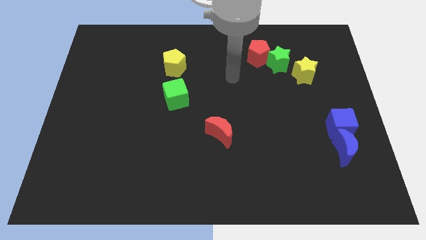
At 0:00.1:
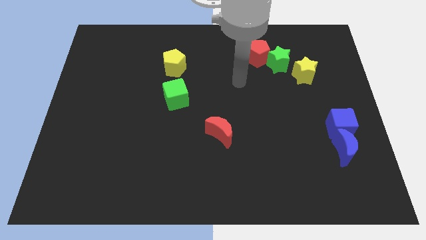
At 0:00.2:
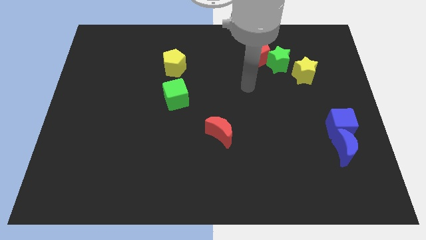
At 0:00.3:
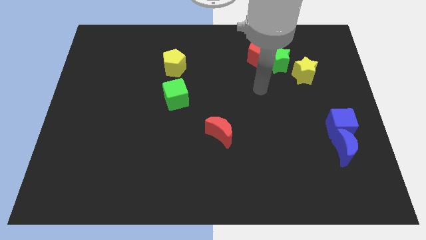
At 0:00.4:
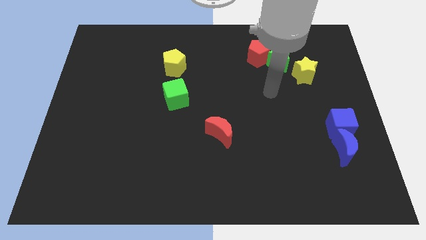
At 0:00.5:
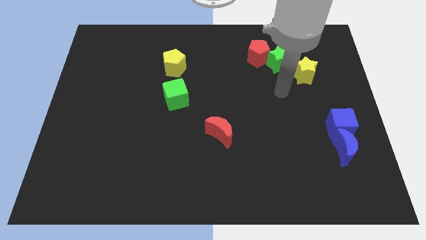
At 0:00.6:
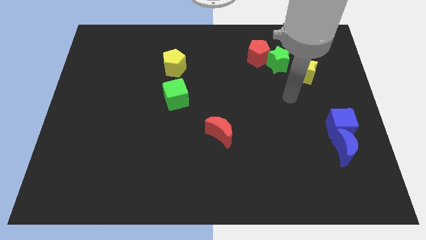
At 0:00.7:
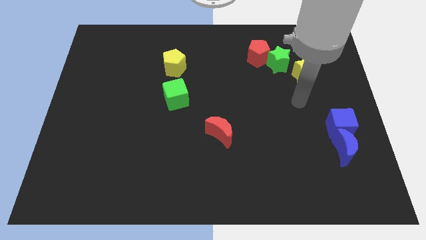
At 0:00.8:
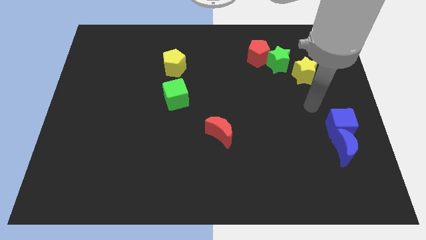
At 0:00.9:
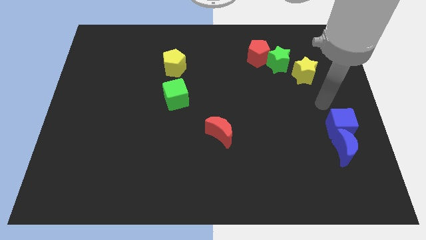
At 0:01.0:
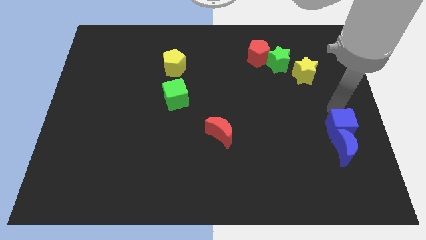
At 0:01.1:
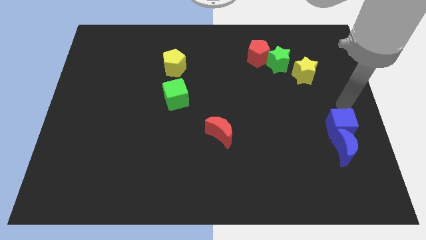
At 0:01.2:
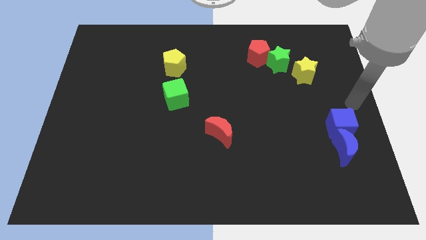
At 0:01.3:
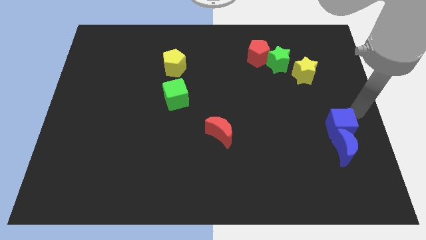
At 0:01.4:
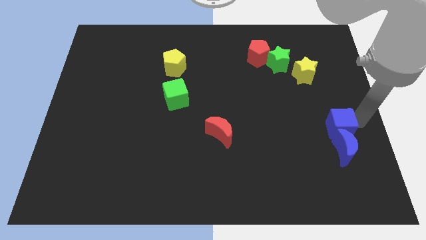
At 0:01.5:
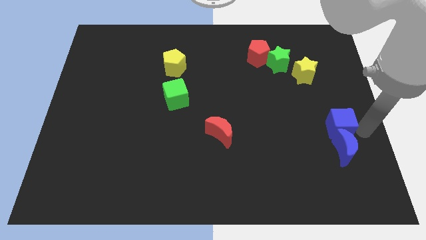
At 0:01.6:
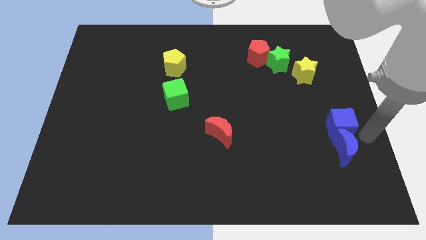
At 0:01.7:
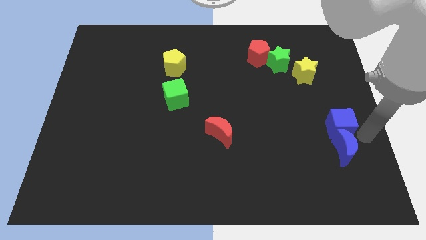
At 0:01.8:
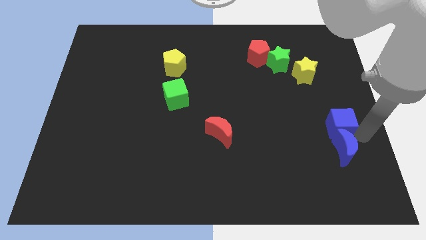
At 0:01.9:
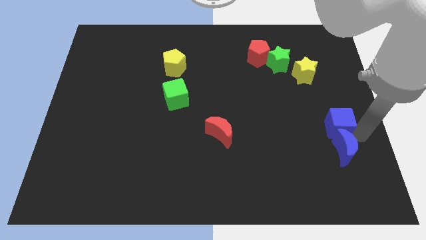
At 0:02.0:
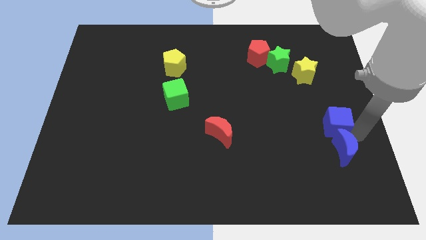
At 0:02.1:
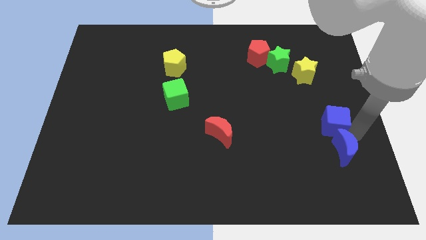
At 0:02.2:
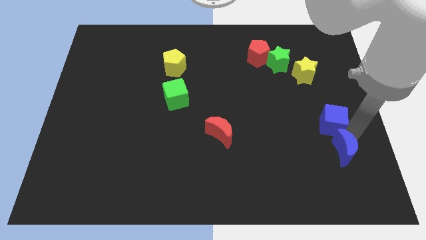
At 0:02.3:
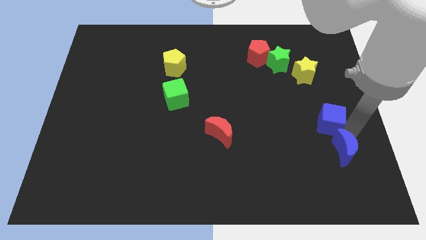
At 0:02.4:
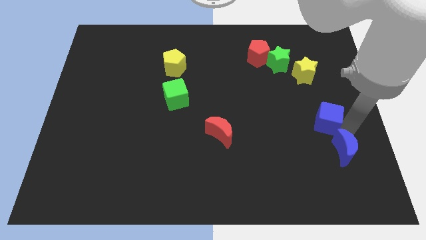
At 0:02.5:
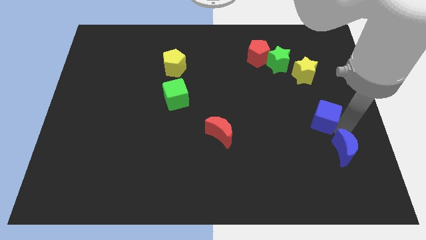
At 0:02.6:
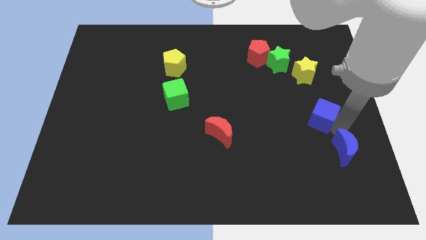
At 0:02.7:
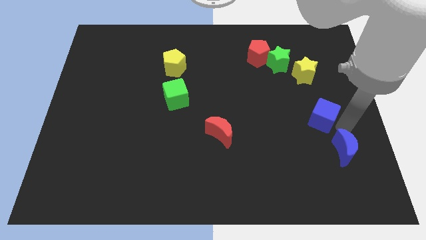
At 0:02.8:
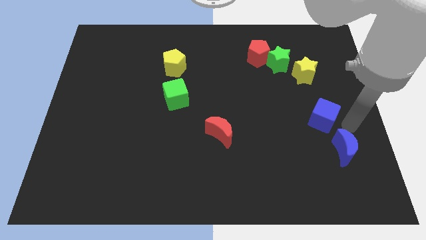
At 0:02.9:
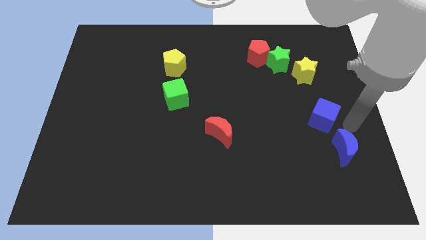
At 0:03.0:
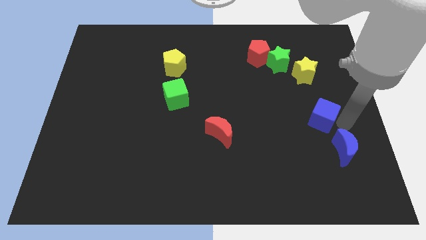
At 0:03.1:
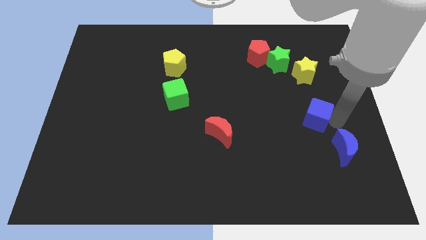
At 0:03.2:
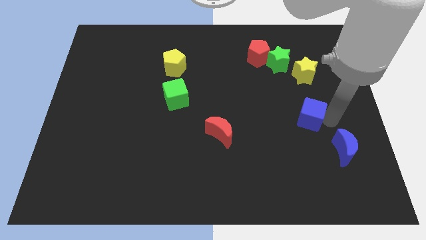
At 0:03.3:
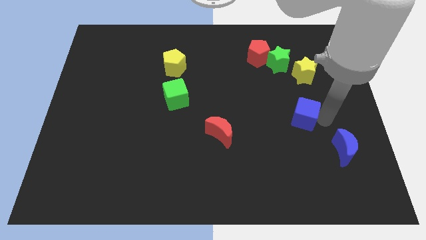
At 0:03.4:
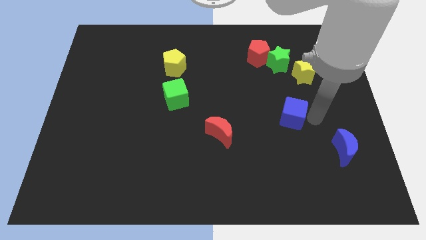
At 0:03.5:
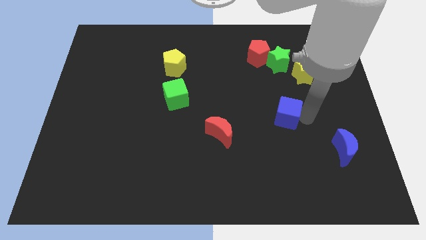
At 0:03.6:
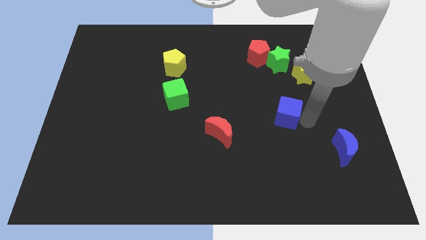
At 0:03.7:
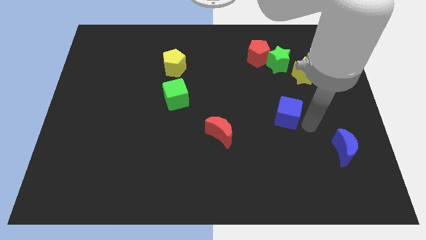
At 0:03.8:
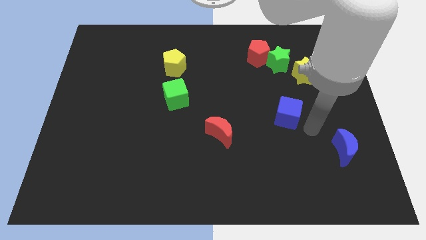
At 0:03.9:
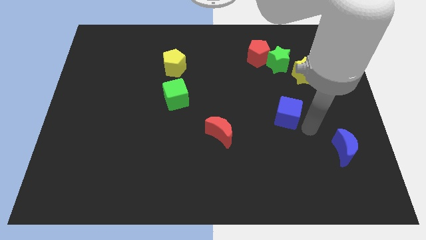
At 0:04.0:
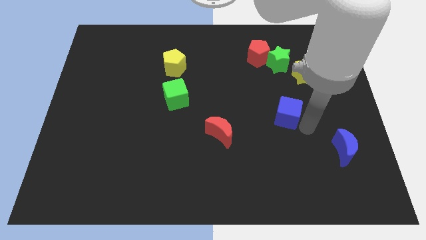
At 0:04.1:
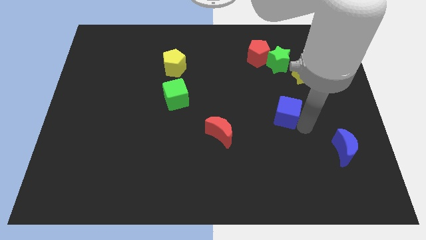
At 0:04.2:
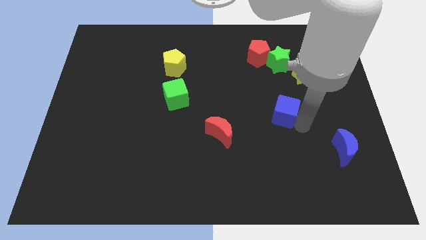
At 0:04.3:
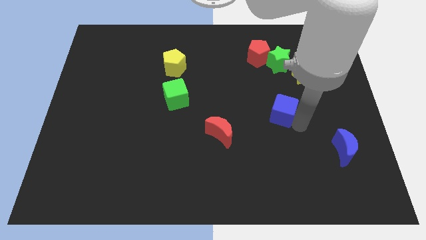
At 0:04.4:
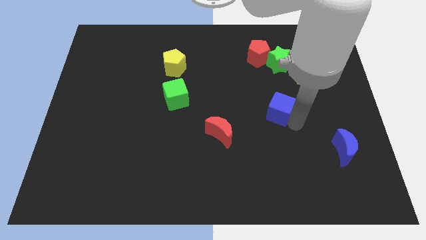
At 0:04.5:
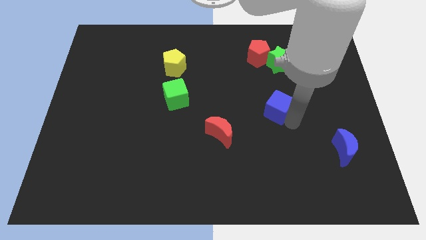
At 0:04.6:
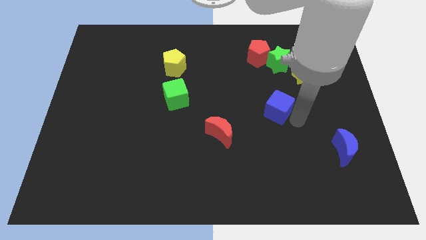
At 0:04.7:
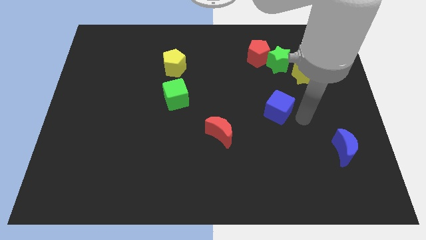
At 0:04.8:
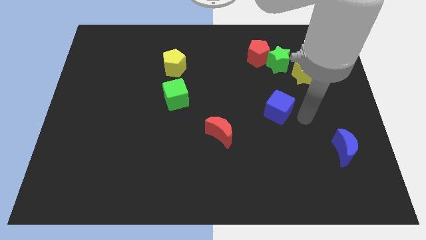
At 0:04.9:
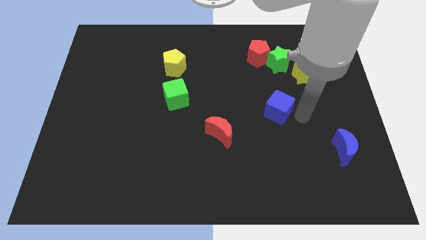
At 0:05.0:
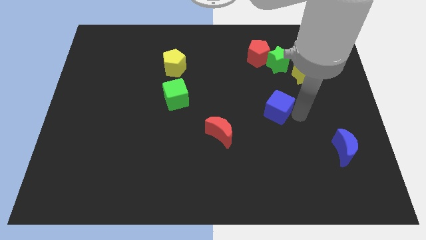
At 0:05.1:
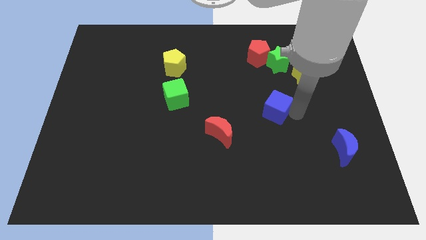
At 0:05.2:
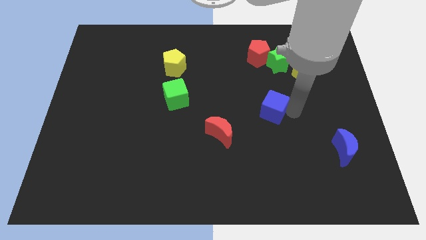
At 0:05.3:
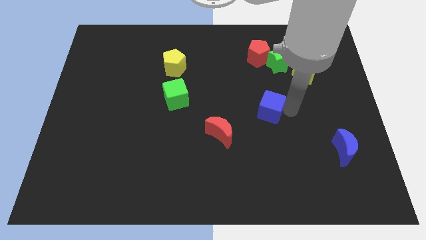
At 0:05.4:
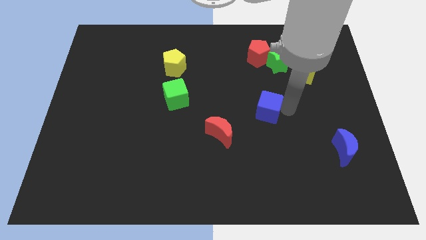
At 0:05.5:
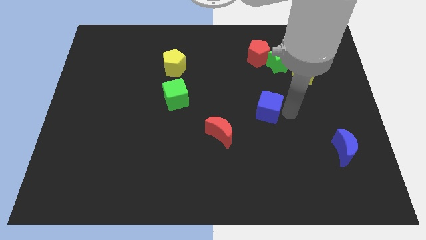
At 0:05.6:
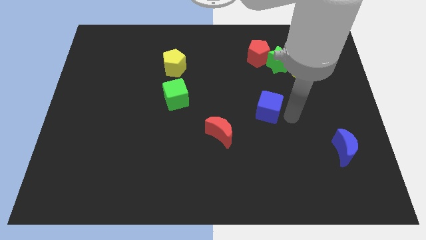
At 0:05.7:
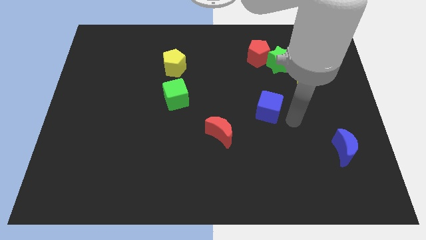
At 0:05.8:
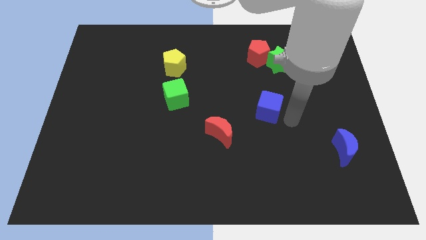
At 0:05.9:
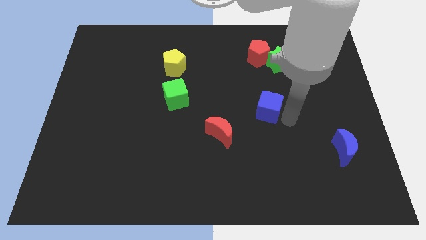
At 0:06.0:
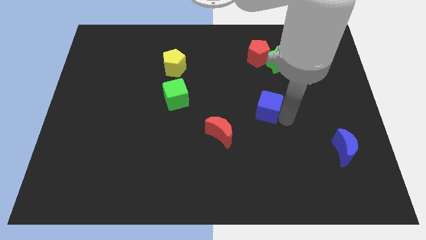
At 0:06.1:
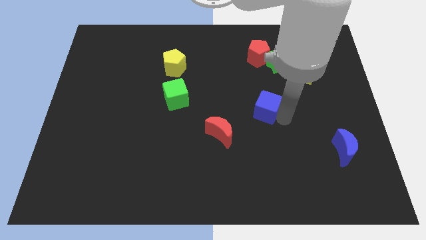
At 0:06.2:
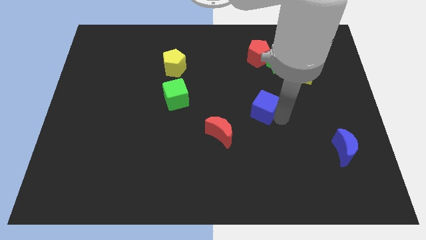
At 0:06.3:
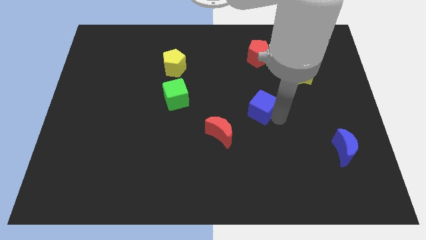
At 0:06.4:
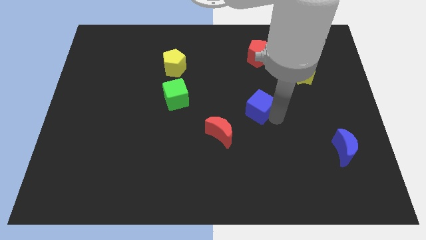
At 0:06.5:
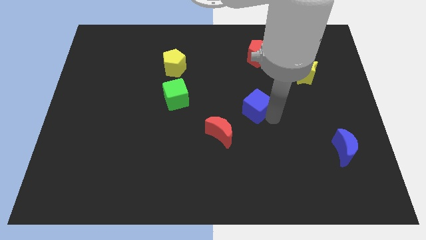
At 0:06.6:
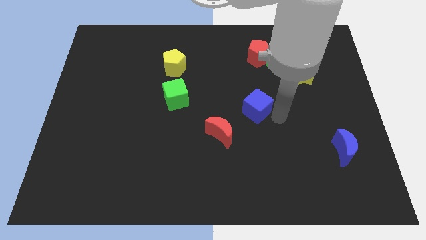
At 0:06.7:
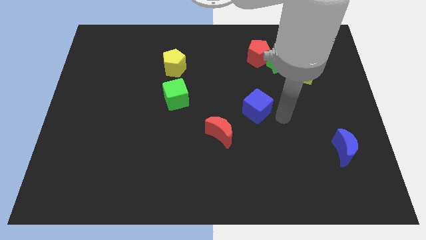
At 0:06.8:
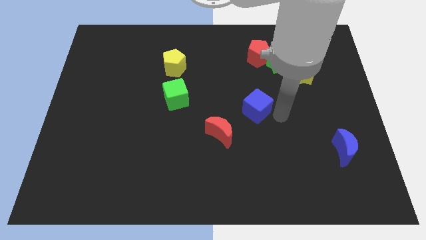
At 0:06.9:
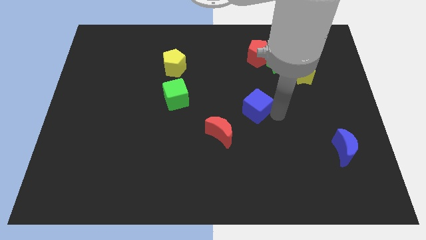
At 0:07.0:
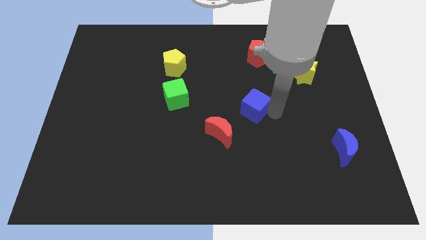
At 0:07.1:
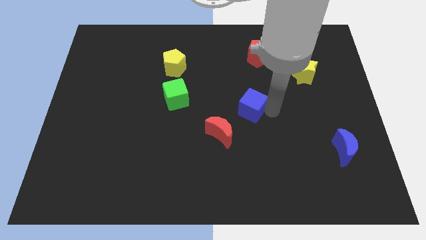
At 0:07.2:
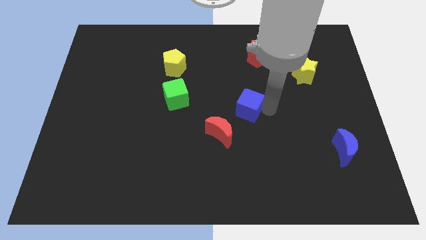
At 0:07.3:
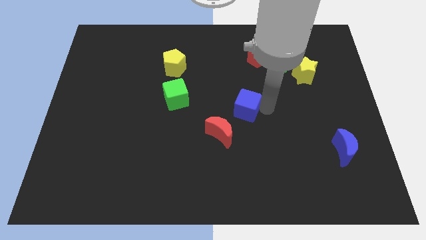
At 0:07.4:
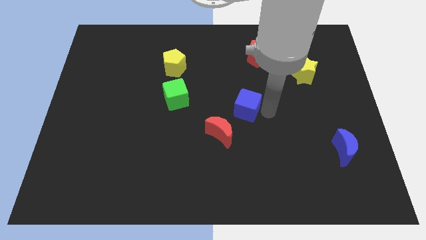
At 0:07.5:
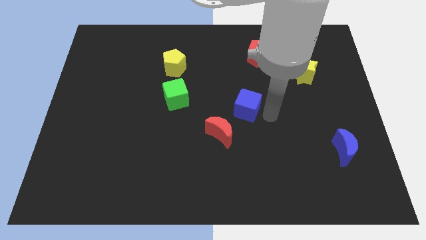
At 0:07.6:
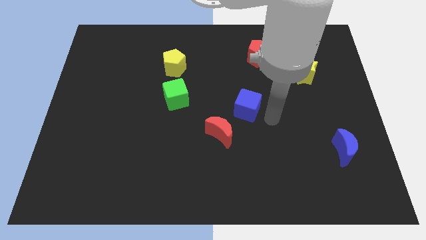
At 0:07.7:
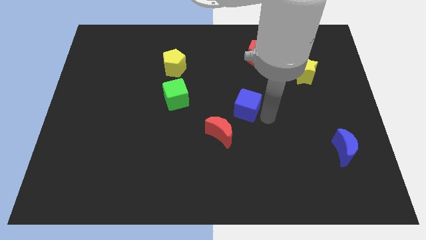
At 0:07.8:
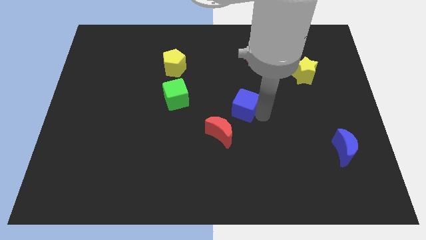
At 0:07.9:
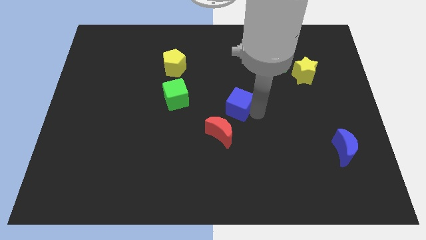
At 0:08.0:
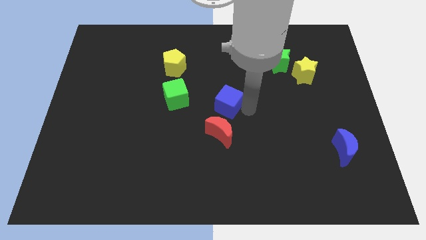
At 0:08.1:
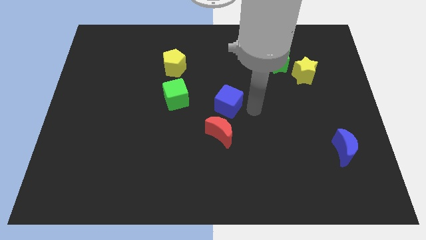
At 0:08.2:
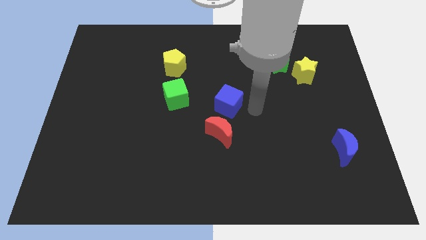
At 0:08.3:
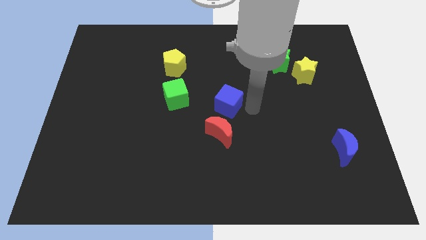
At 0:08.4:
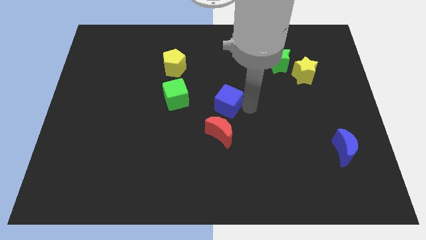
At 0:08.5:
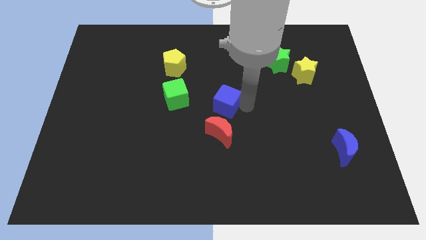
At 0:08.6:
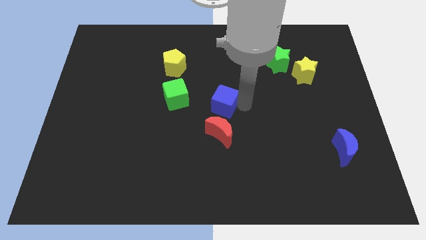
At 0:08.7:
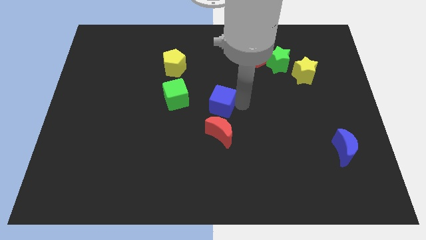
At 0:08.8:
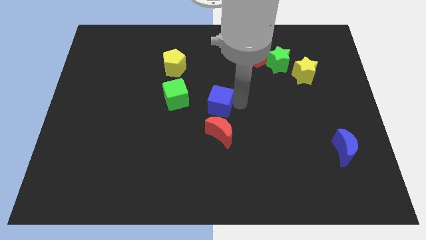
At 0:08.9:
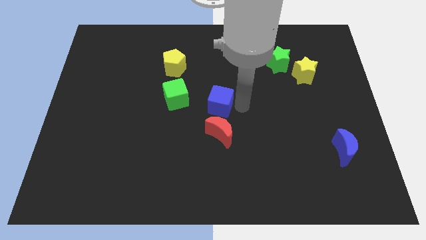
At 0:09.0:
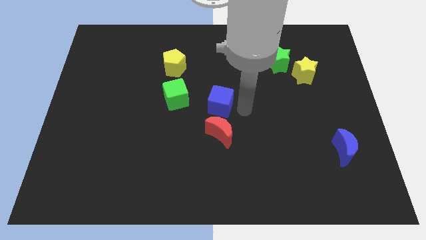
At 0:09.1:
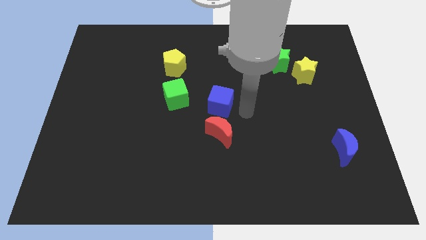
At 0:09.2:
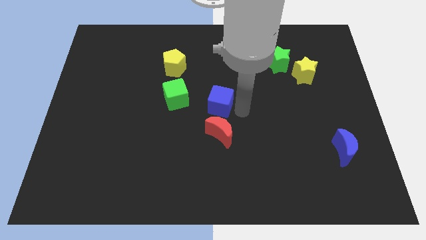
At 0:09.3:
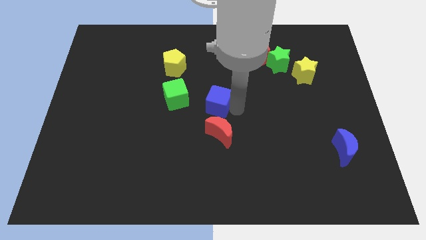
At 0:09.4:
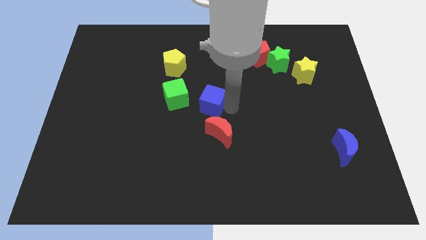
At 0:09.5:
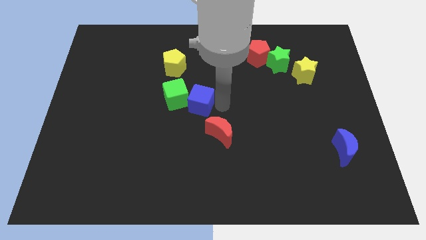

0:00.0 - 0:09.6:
put the blue cube next to the green cube
